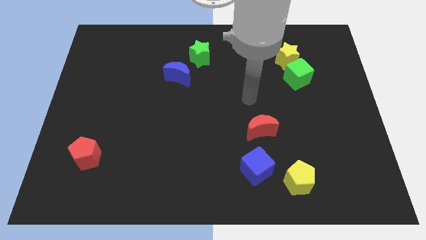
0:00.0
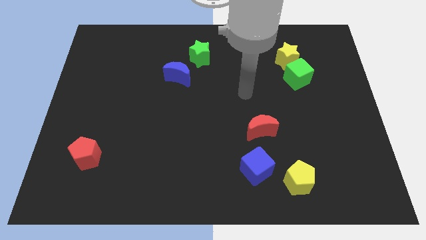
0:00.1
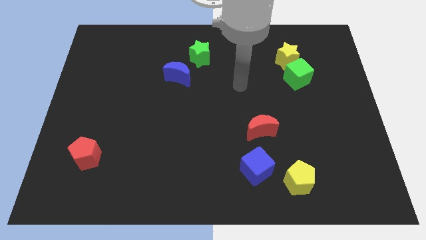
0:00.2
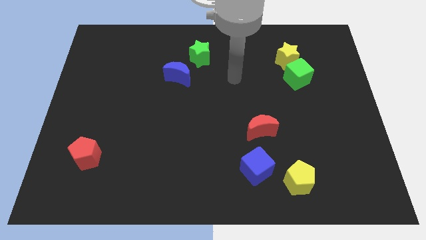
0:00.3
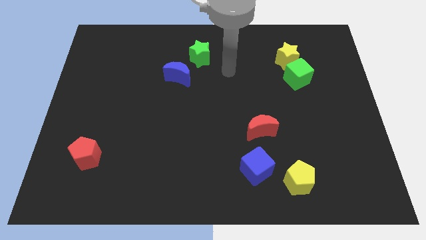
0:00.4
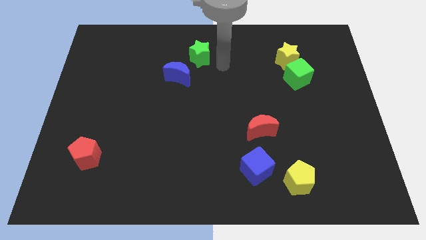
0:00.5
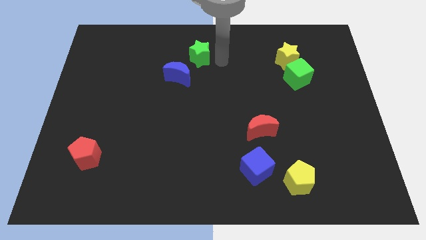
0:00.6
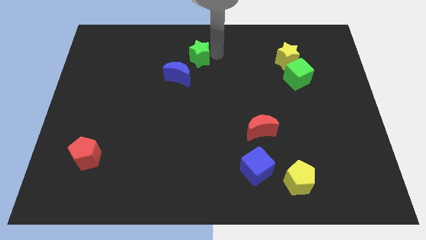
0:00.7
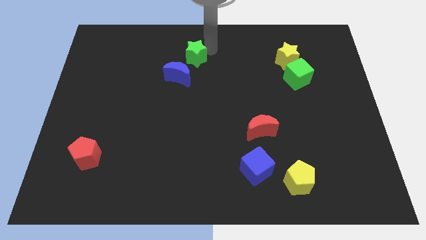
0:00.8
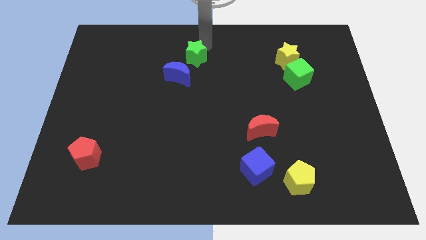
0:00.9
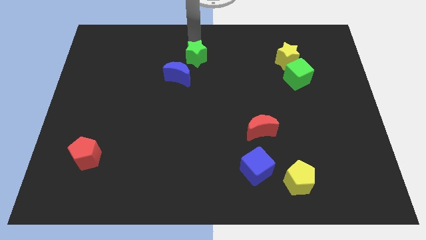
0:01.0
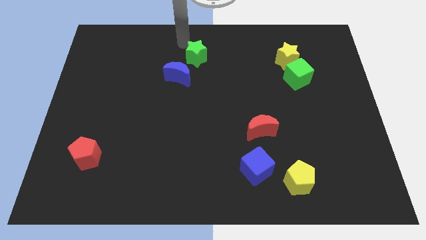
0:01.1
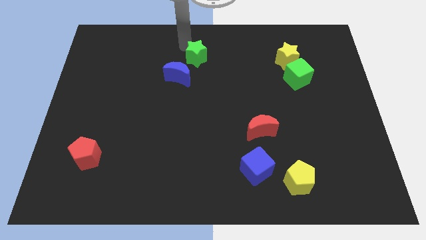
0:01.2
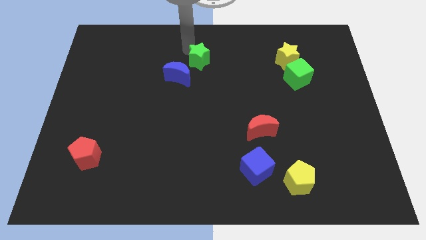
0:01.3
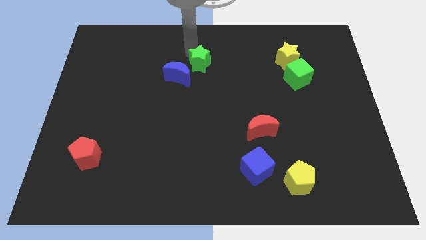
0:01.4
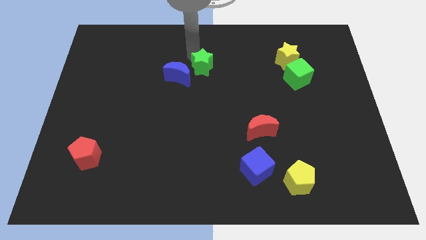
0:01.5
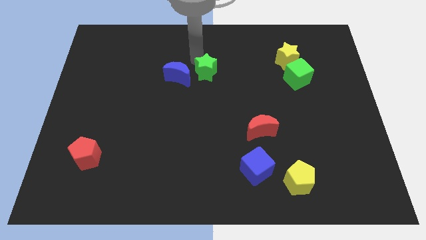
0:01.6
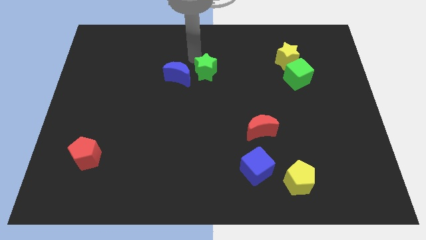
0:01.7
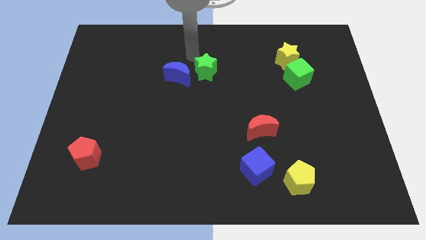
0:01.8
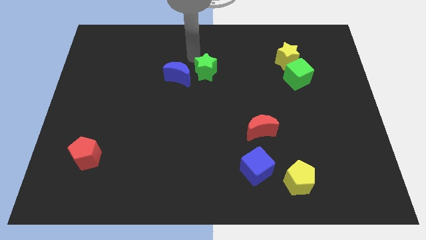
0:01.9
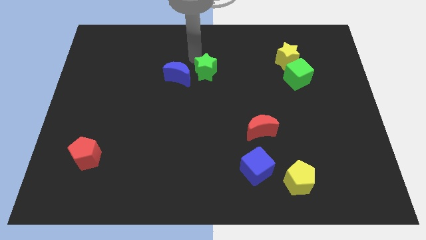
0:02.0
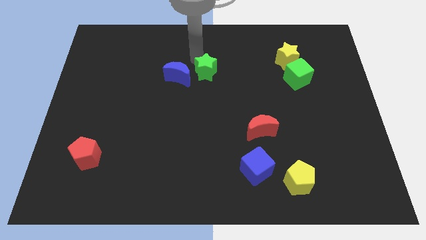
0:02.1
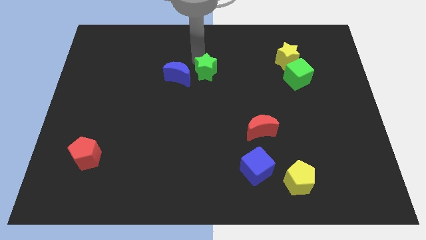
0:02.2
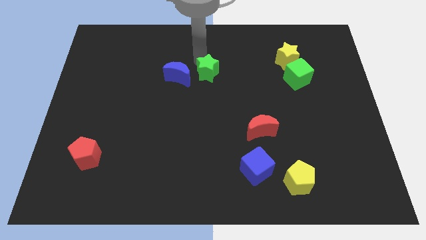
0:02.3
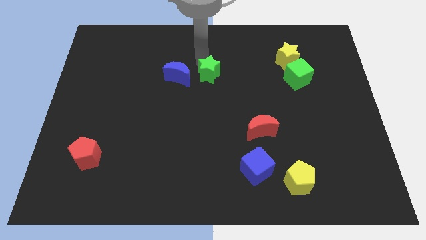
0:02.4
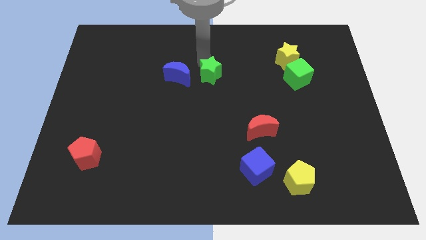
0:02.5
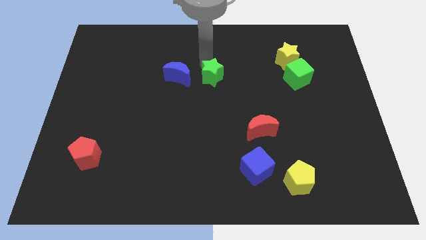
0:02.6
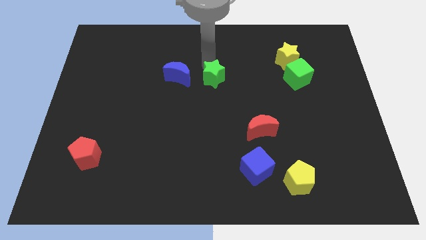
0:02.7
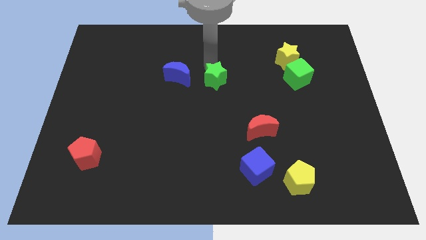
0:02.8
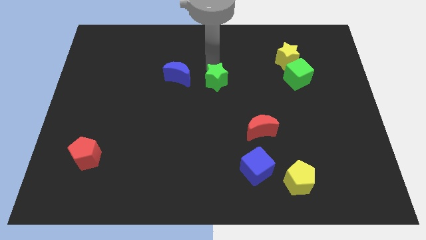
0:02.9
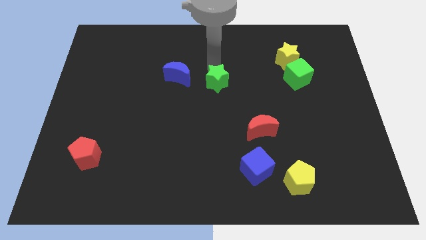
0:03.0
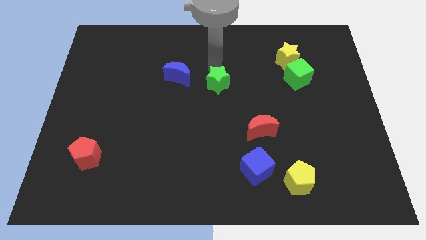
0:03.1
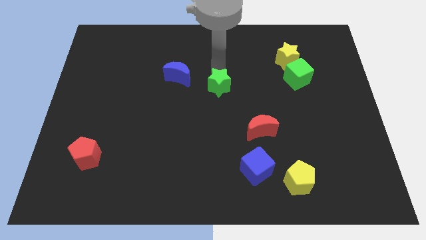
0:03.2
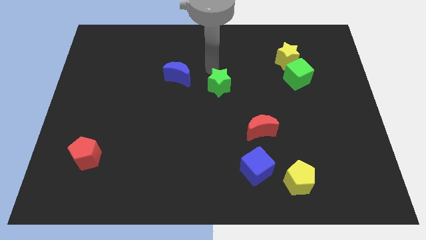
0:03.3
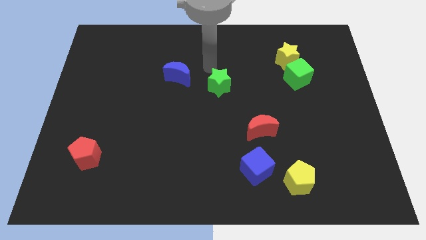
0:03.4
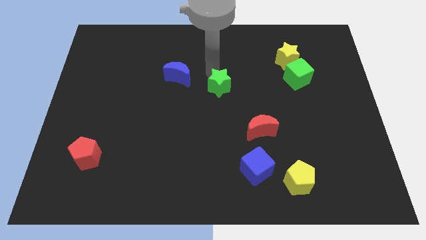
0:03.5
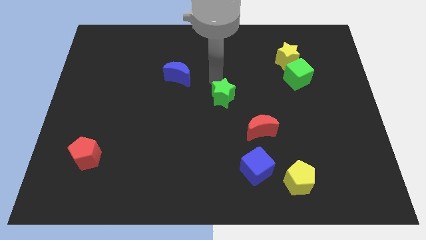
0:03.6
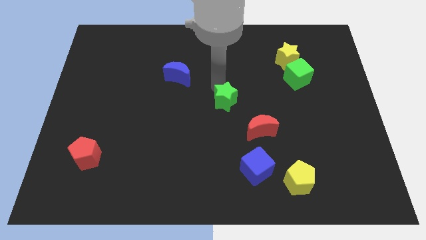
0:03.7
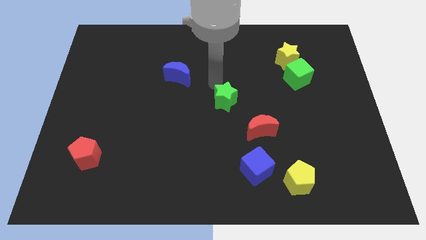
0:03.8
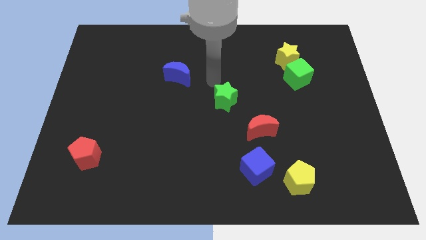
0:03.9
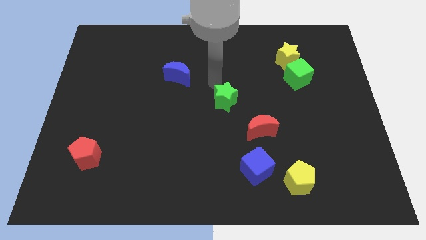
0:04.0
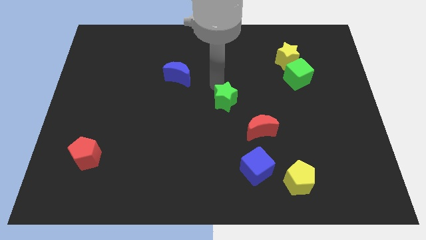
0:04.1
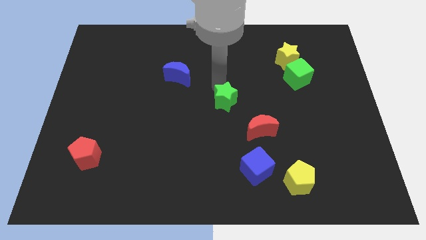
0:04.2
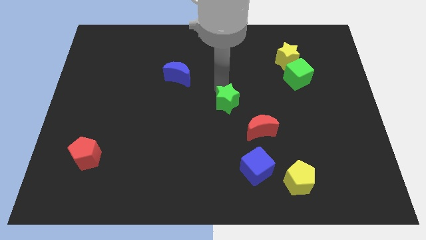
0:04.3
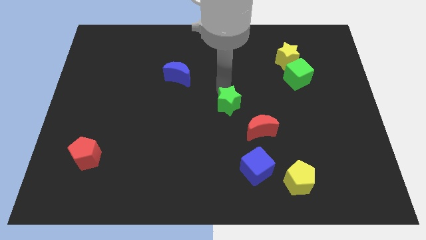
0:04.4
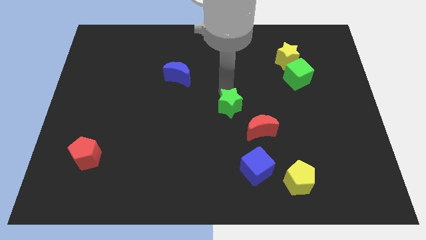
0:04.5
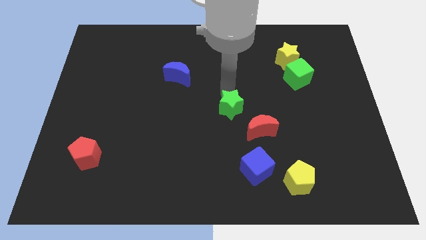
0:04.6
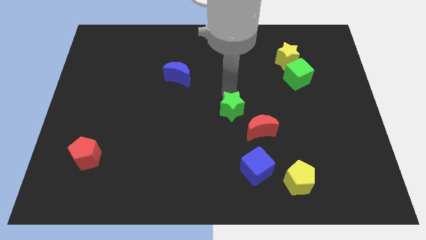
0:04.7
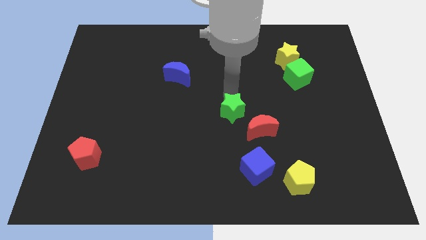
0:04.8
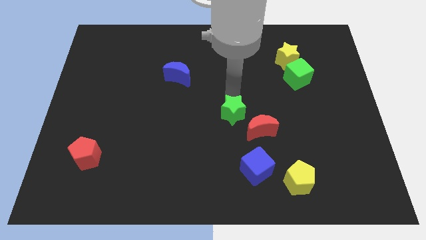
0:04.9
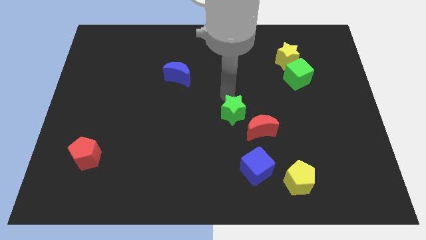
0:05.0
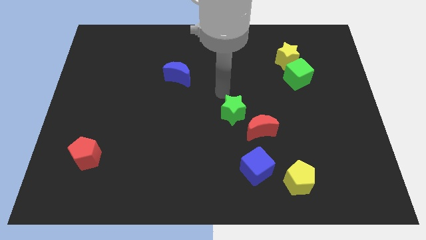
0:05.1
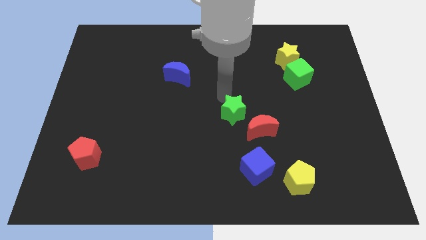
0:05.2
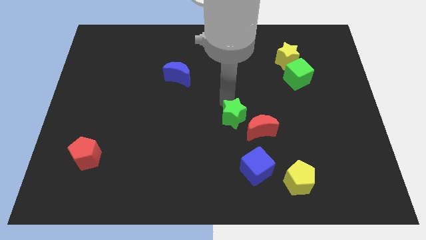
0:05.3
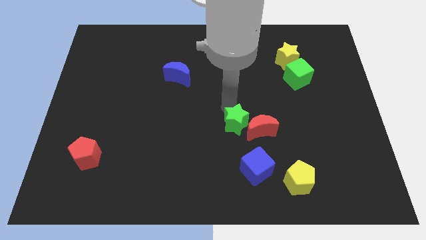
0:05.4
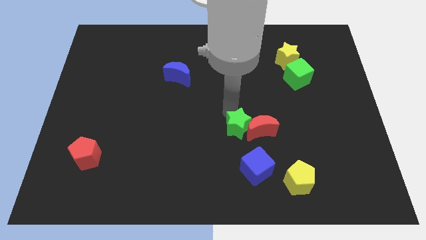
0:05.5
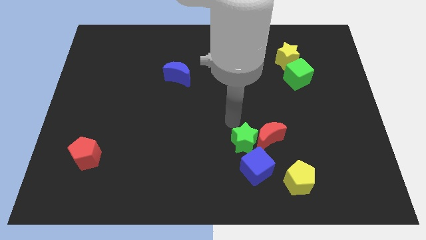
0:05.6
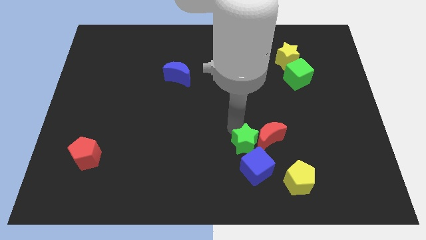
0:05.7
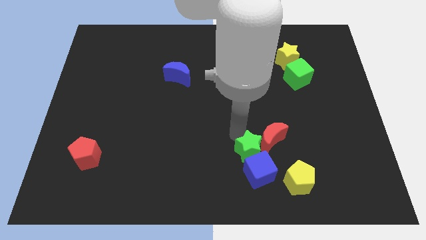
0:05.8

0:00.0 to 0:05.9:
move the green star diagonally up and to the left of the yellow pentagon

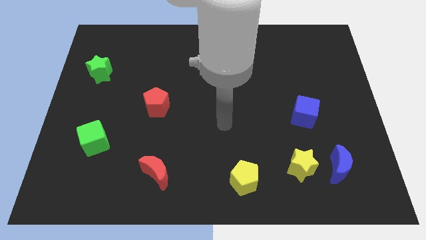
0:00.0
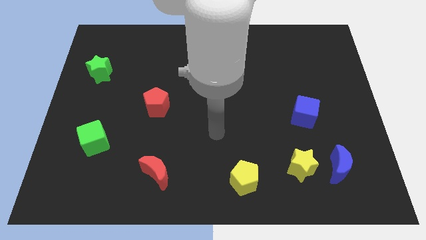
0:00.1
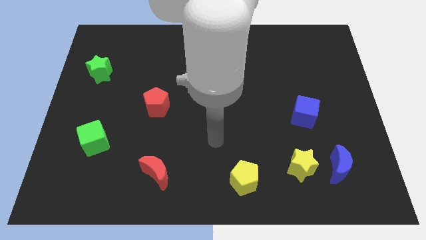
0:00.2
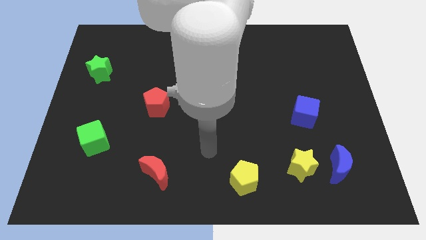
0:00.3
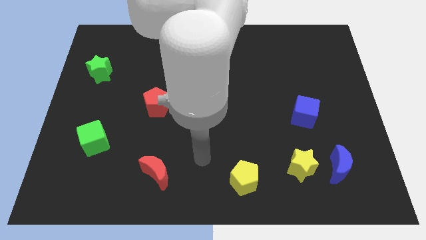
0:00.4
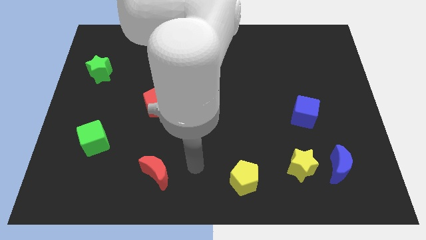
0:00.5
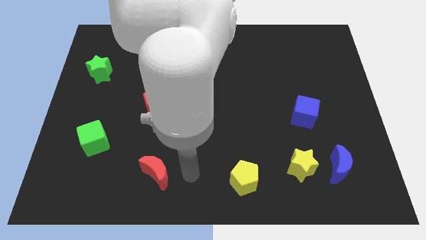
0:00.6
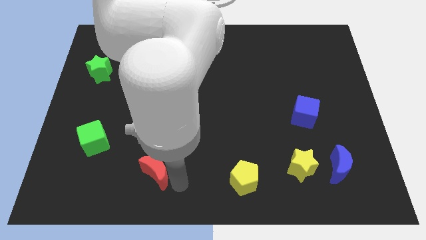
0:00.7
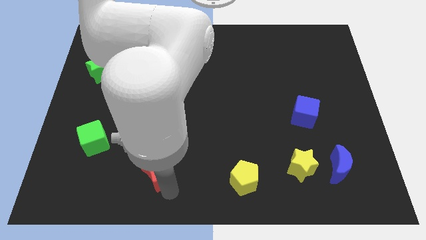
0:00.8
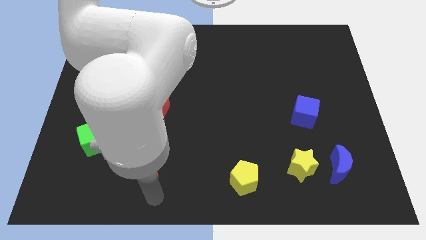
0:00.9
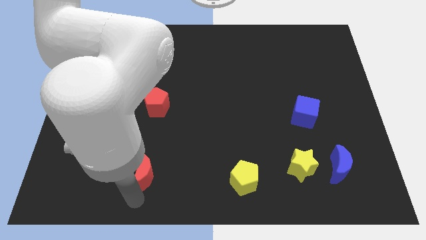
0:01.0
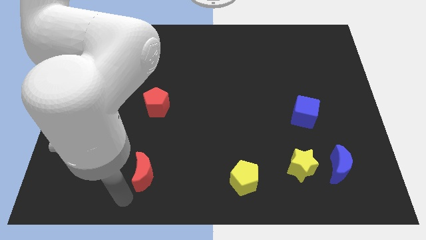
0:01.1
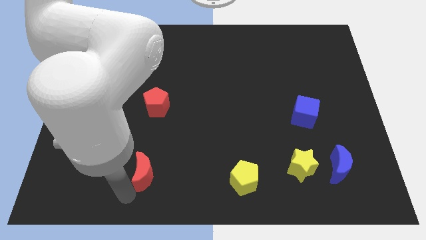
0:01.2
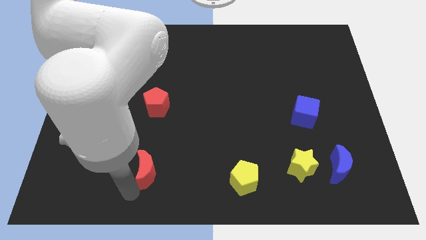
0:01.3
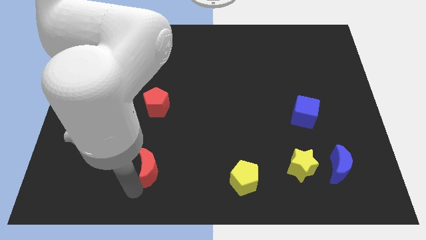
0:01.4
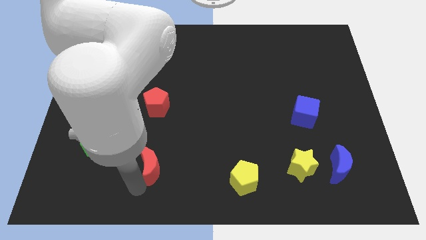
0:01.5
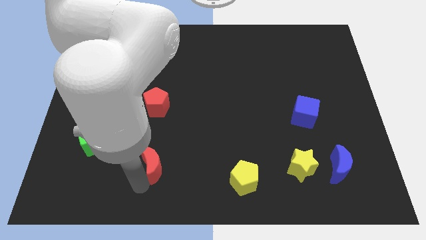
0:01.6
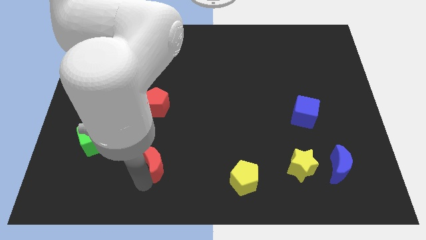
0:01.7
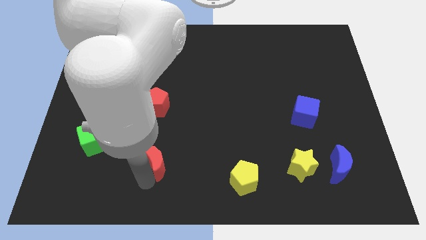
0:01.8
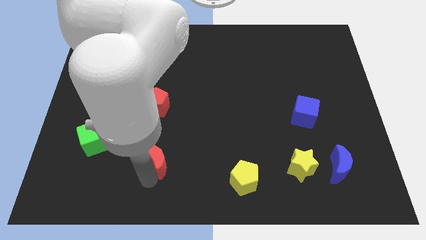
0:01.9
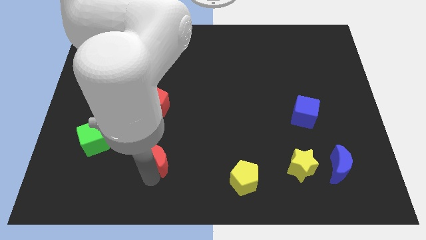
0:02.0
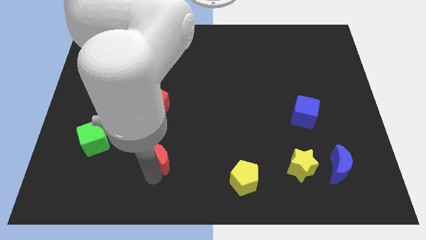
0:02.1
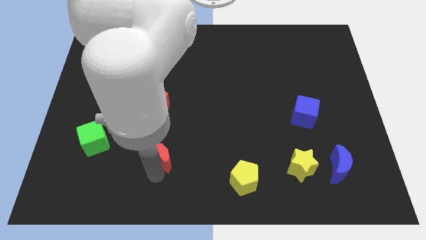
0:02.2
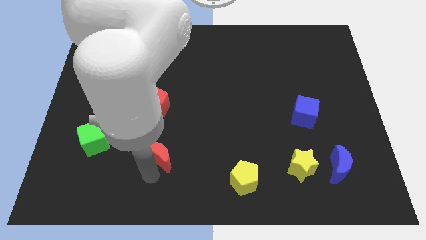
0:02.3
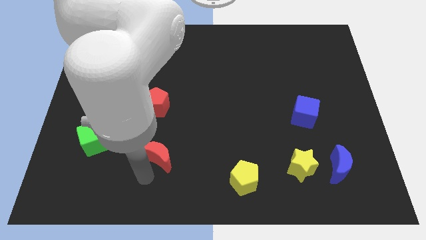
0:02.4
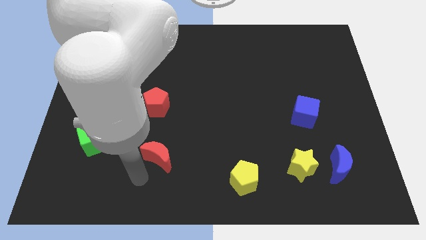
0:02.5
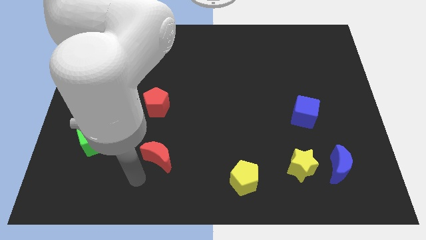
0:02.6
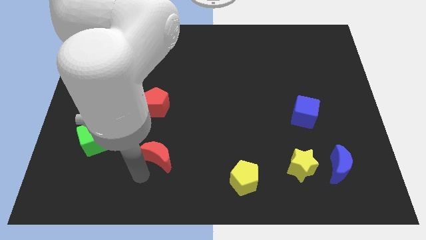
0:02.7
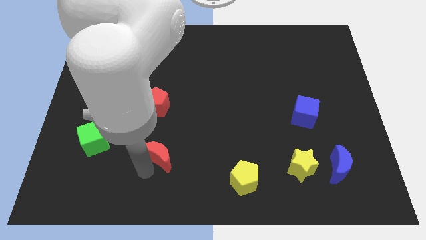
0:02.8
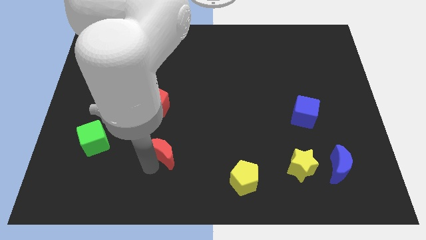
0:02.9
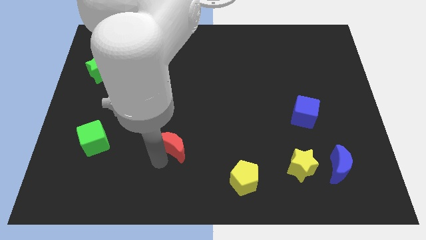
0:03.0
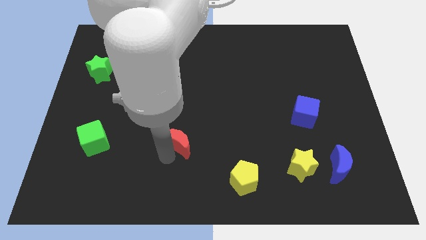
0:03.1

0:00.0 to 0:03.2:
put the red moon to the bottom right of the red pentagon
